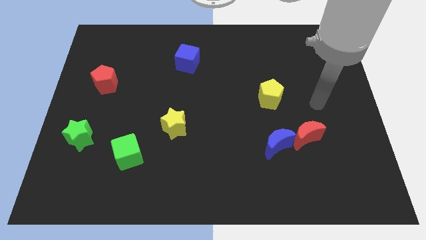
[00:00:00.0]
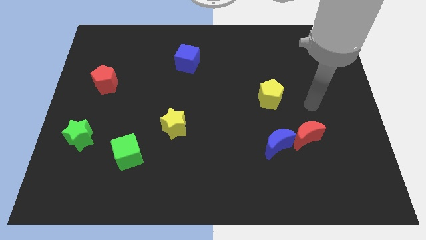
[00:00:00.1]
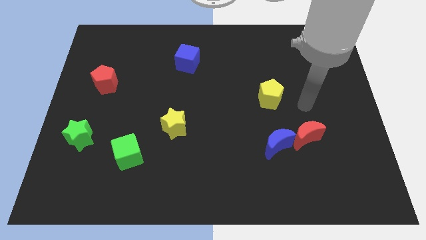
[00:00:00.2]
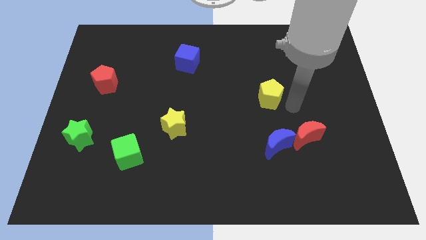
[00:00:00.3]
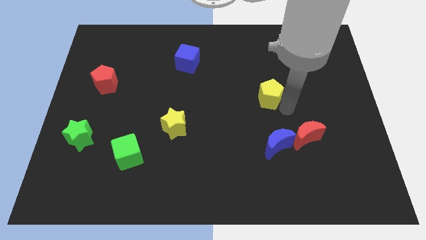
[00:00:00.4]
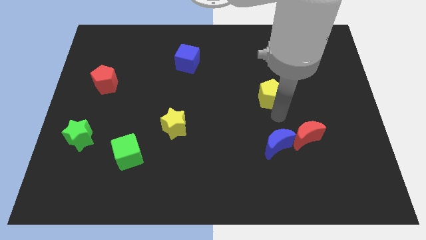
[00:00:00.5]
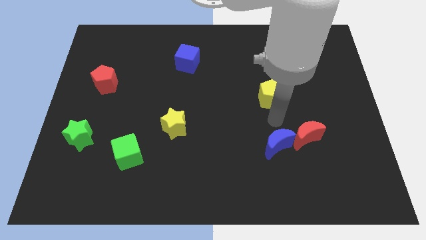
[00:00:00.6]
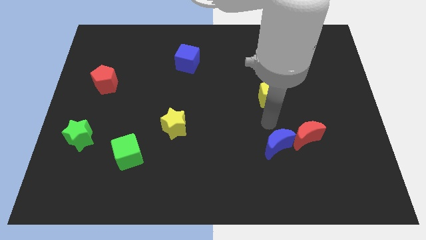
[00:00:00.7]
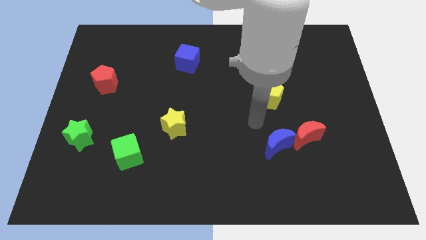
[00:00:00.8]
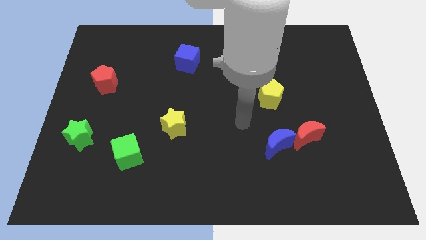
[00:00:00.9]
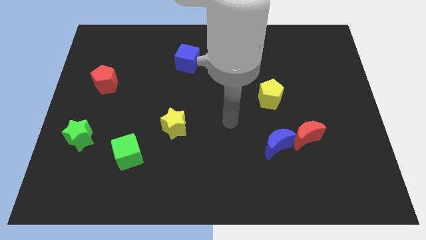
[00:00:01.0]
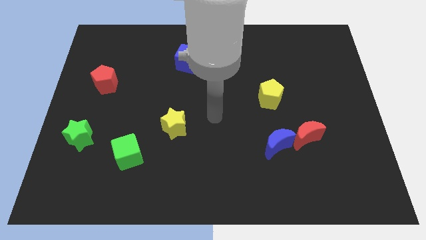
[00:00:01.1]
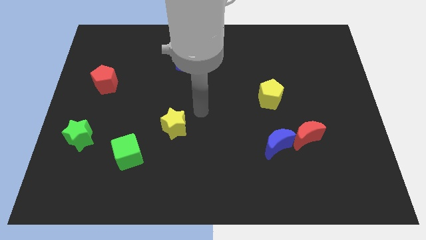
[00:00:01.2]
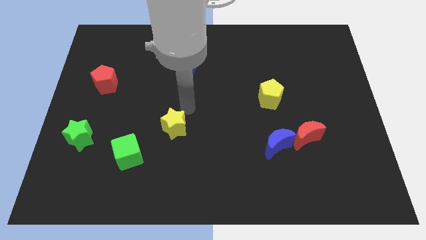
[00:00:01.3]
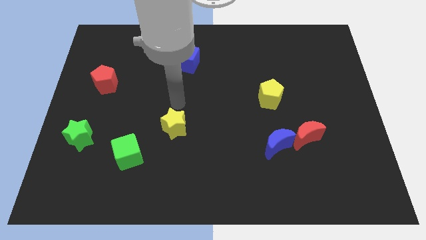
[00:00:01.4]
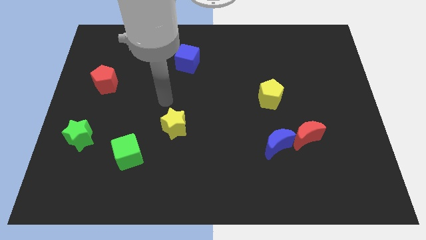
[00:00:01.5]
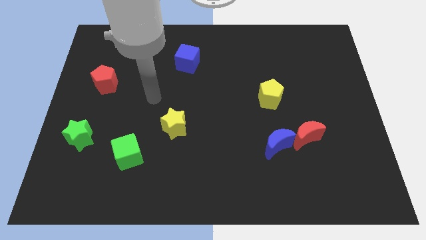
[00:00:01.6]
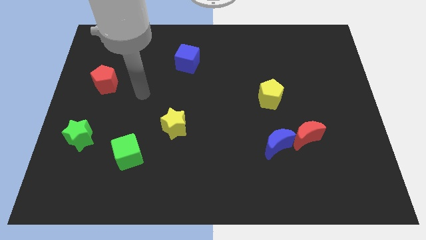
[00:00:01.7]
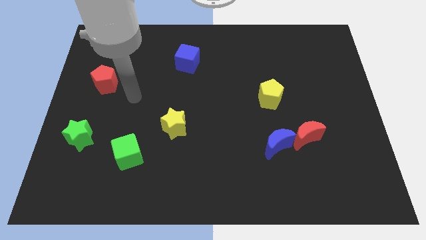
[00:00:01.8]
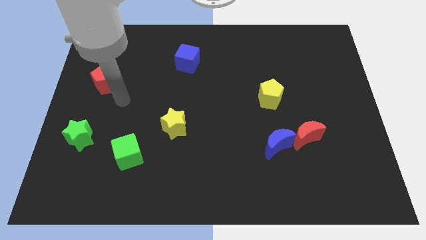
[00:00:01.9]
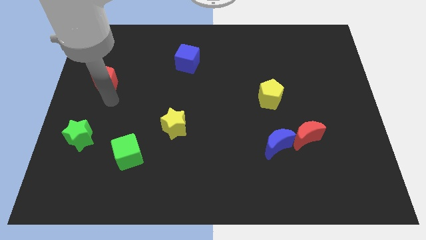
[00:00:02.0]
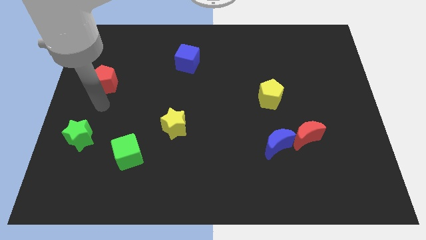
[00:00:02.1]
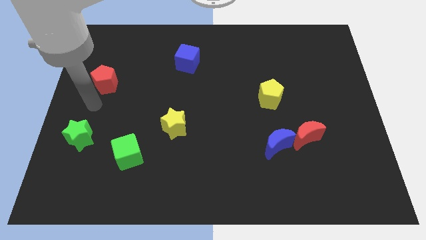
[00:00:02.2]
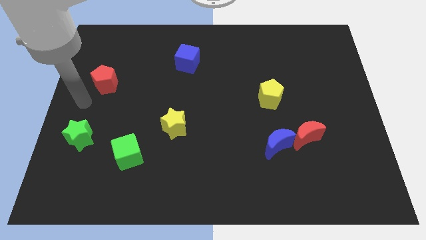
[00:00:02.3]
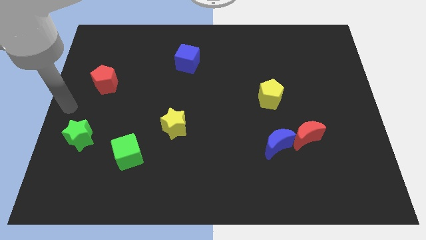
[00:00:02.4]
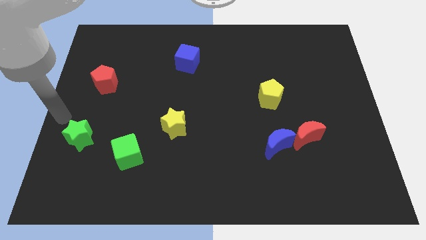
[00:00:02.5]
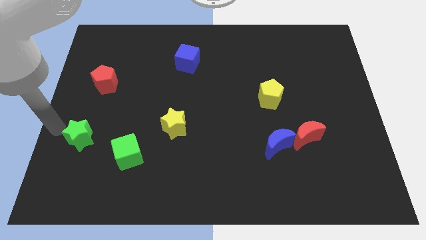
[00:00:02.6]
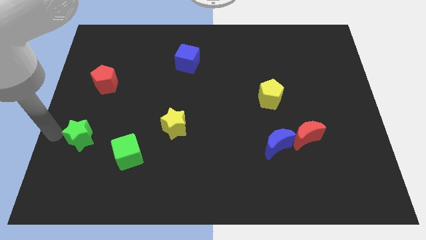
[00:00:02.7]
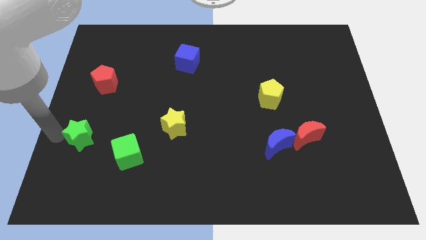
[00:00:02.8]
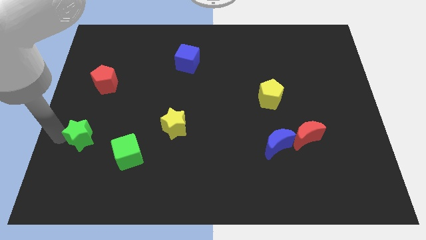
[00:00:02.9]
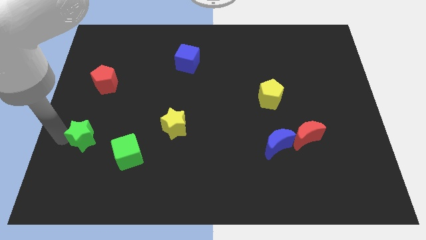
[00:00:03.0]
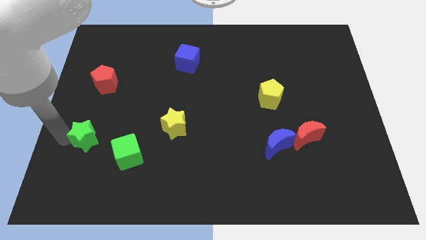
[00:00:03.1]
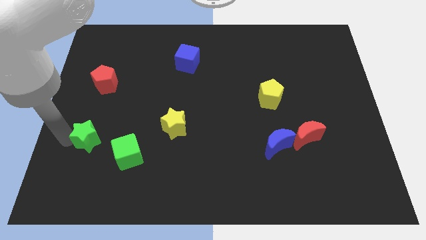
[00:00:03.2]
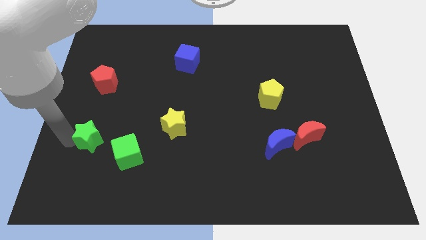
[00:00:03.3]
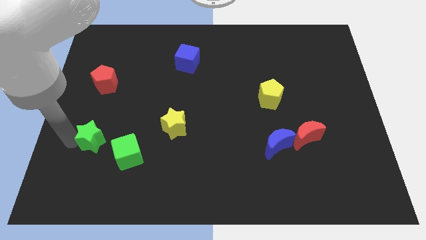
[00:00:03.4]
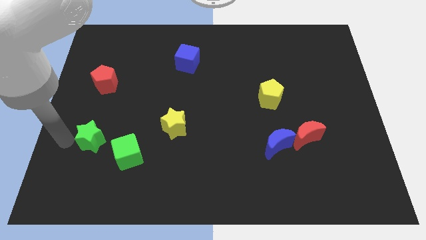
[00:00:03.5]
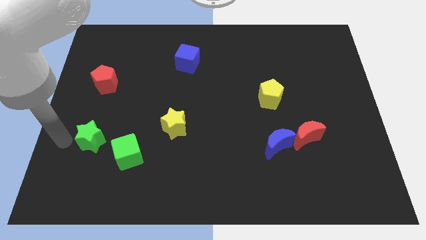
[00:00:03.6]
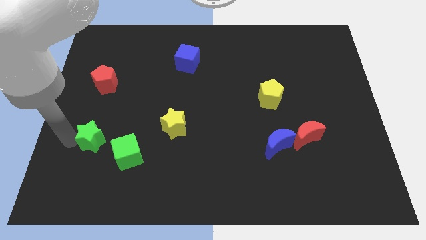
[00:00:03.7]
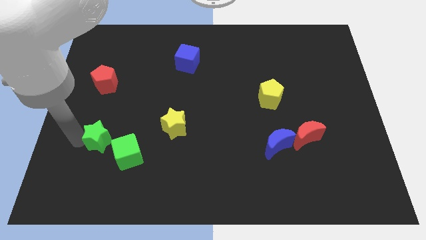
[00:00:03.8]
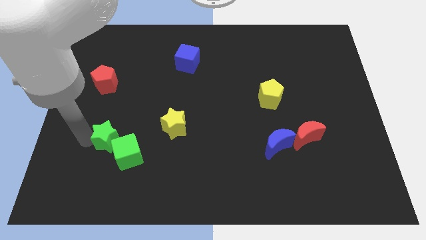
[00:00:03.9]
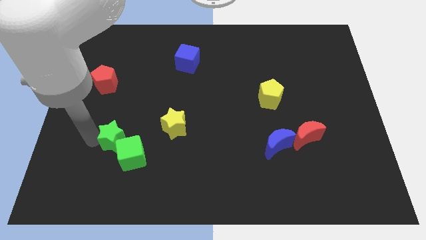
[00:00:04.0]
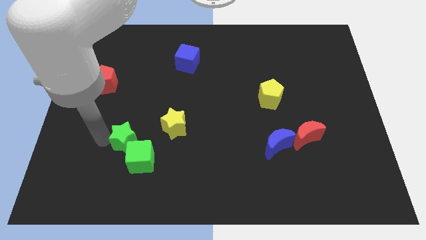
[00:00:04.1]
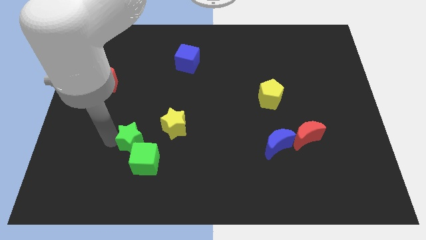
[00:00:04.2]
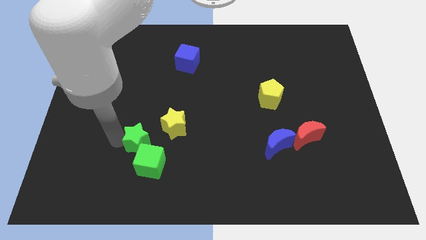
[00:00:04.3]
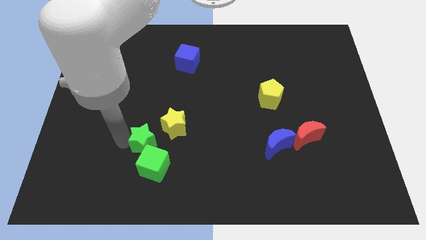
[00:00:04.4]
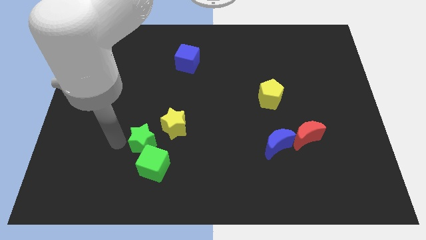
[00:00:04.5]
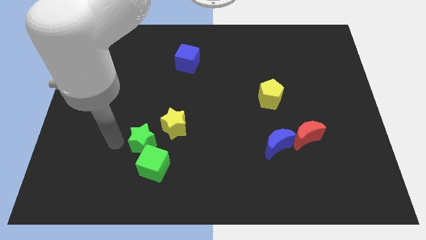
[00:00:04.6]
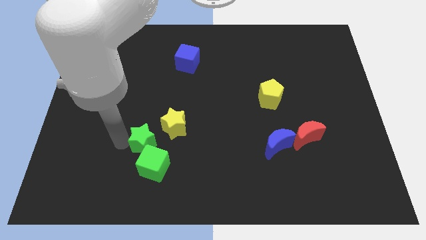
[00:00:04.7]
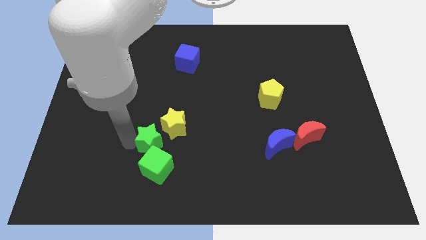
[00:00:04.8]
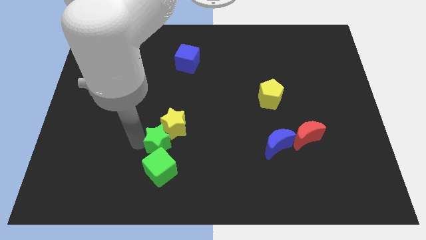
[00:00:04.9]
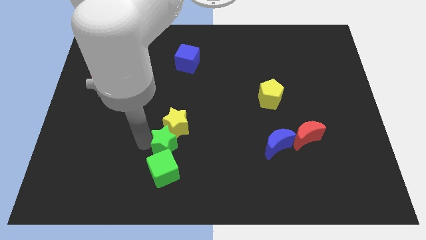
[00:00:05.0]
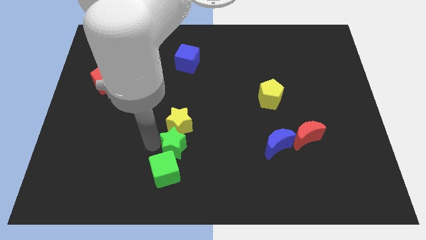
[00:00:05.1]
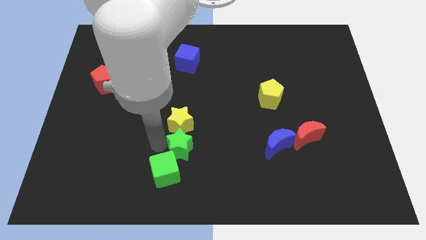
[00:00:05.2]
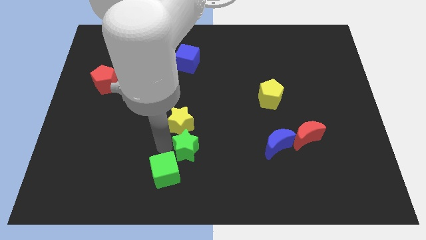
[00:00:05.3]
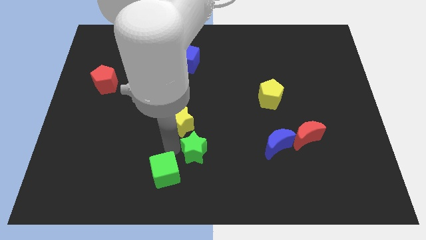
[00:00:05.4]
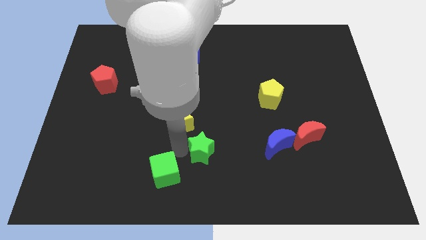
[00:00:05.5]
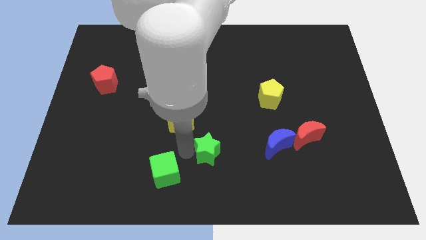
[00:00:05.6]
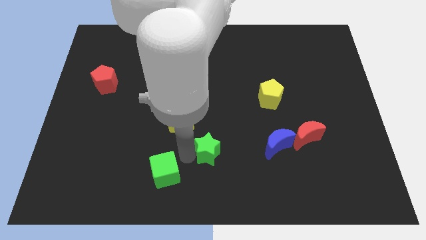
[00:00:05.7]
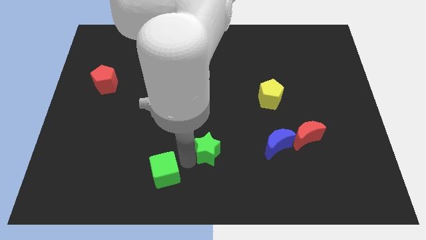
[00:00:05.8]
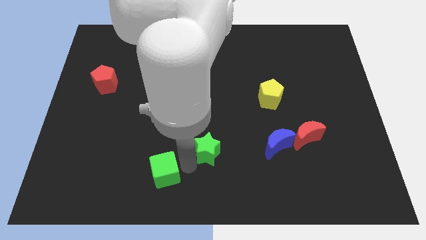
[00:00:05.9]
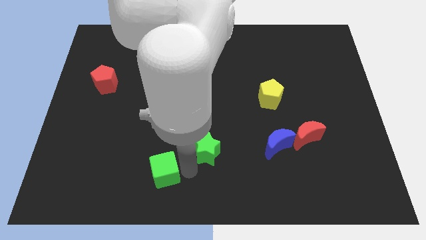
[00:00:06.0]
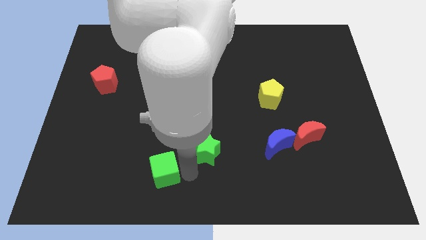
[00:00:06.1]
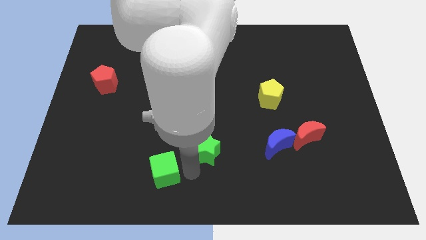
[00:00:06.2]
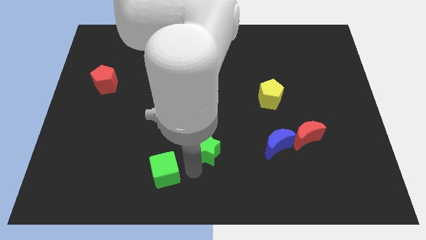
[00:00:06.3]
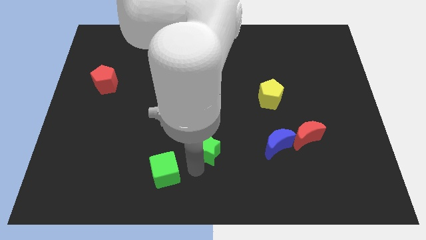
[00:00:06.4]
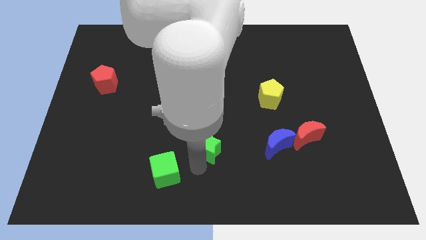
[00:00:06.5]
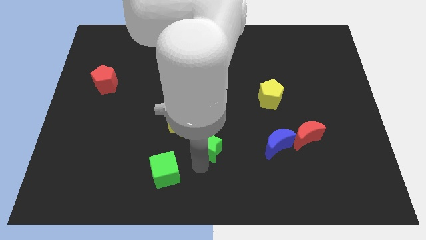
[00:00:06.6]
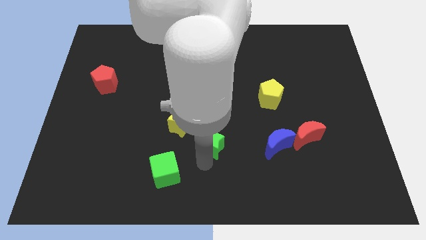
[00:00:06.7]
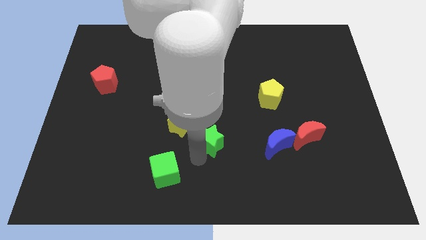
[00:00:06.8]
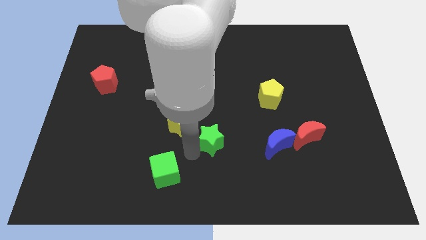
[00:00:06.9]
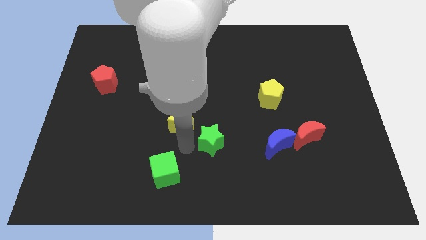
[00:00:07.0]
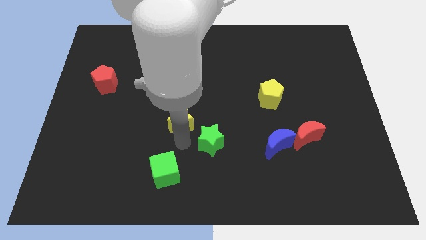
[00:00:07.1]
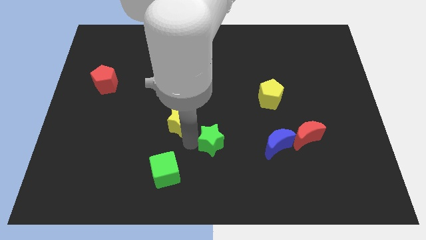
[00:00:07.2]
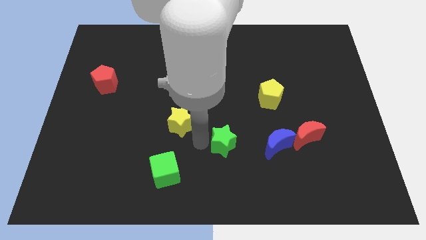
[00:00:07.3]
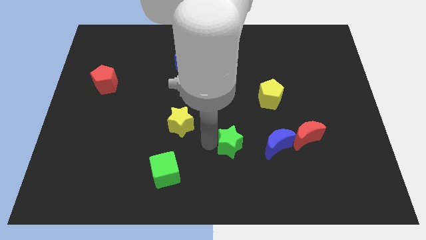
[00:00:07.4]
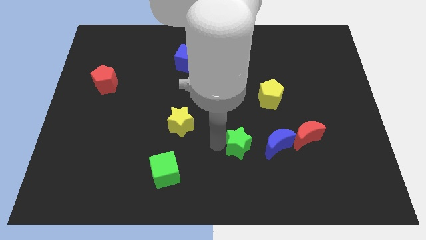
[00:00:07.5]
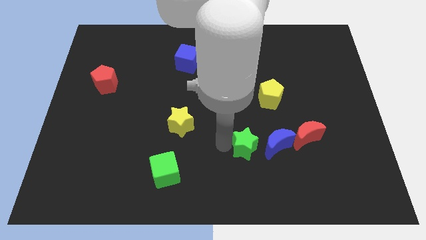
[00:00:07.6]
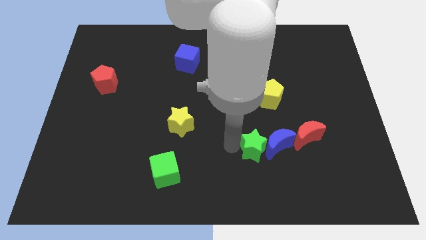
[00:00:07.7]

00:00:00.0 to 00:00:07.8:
slide the green star next to the blue moon
